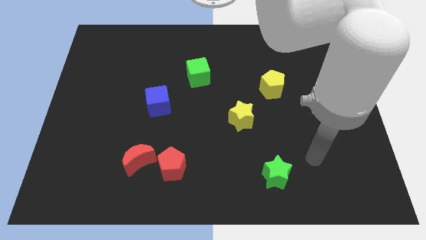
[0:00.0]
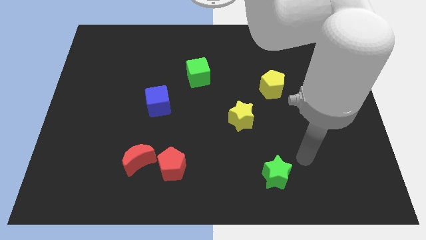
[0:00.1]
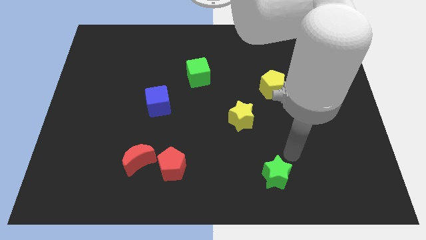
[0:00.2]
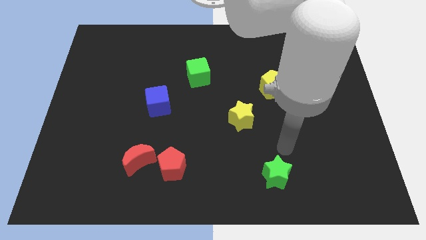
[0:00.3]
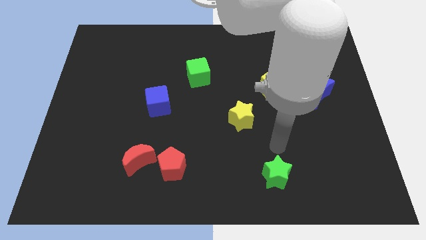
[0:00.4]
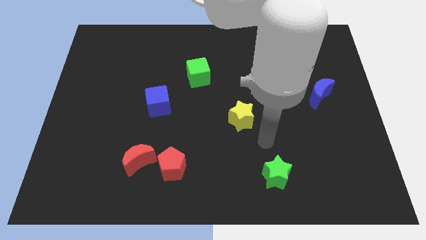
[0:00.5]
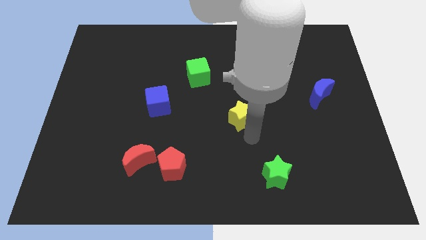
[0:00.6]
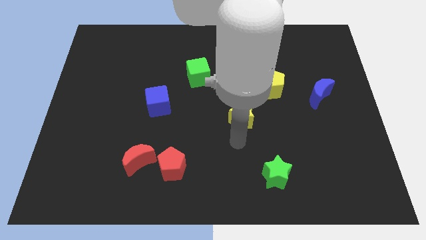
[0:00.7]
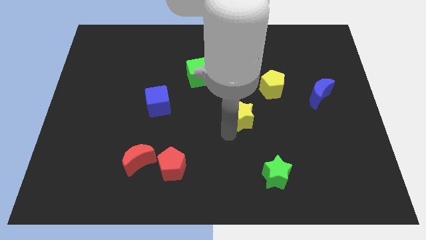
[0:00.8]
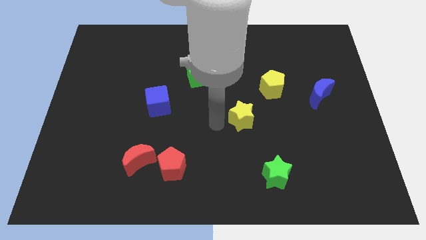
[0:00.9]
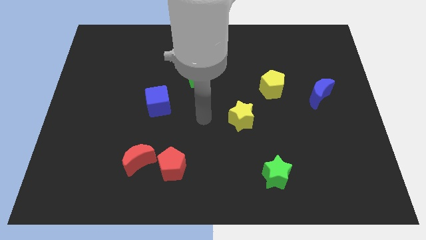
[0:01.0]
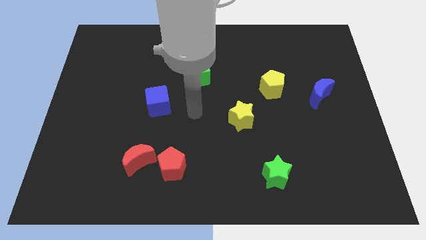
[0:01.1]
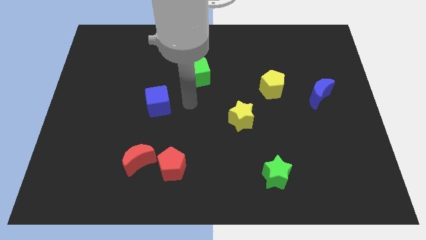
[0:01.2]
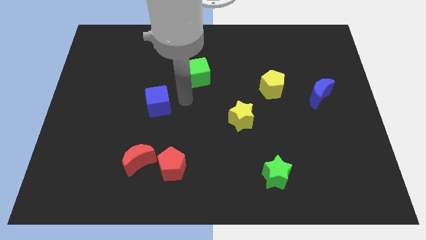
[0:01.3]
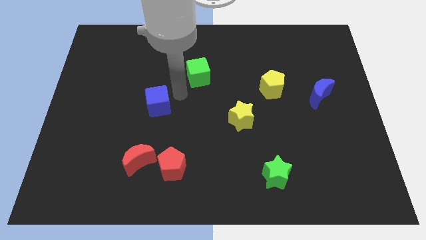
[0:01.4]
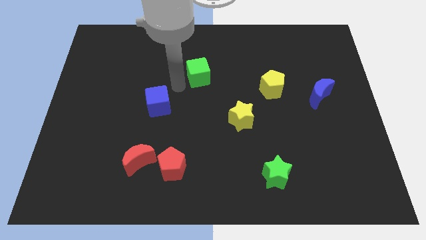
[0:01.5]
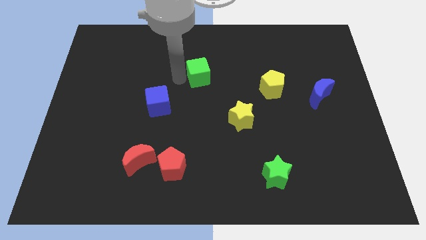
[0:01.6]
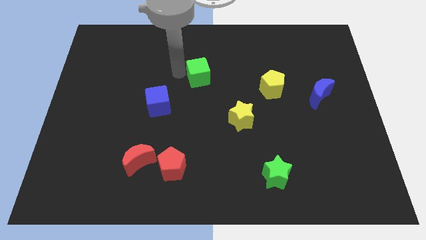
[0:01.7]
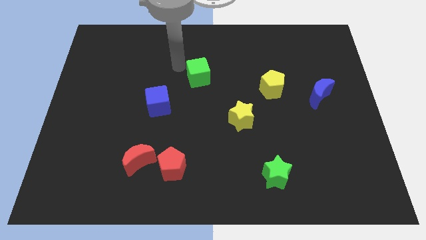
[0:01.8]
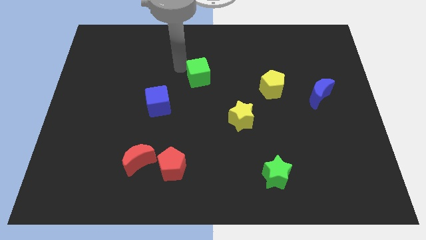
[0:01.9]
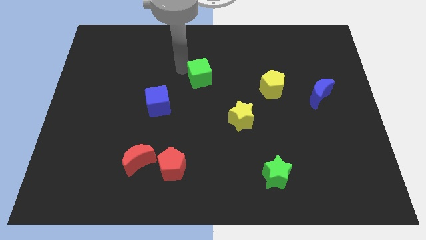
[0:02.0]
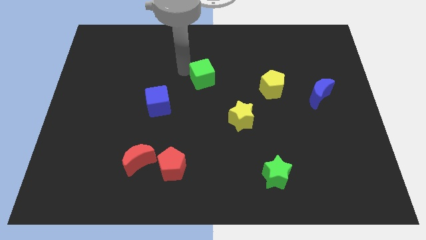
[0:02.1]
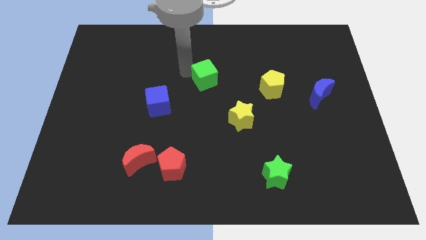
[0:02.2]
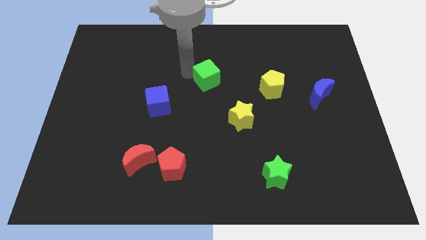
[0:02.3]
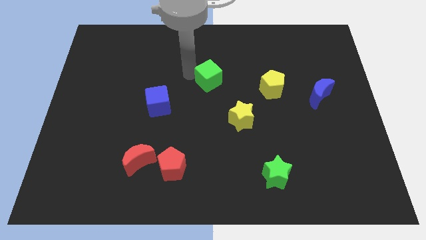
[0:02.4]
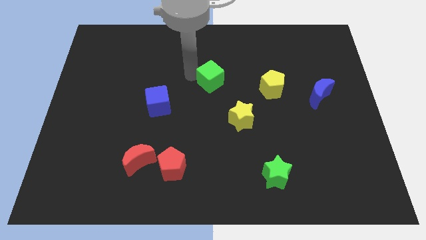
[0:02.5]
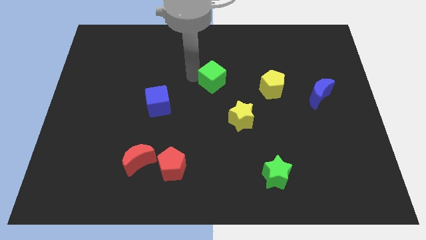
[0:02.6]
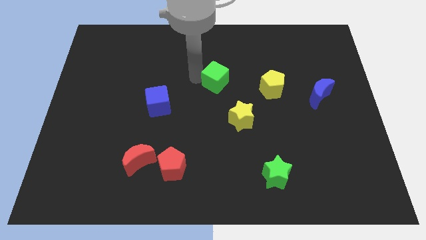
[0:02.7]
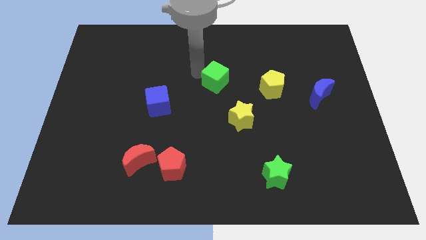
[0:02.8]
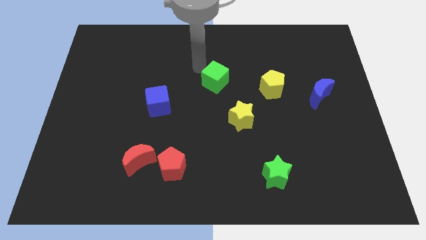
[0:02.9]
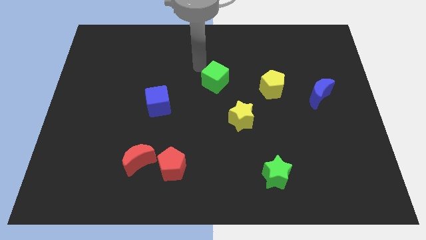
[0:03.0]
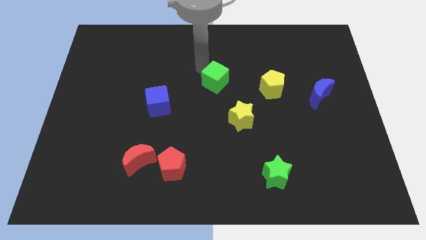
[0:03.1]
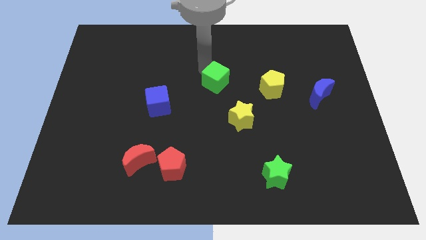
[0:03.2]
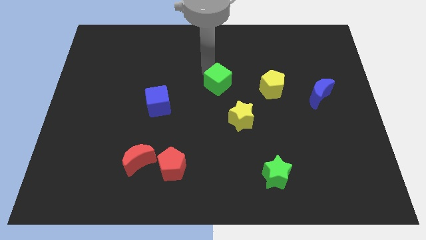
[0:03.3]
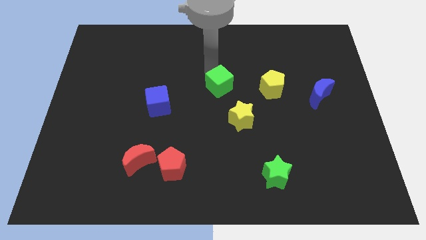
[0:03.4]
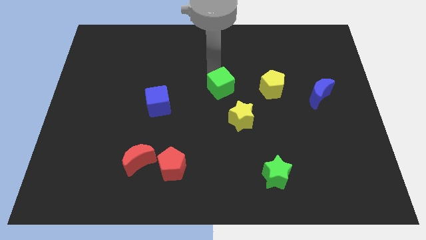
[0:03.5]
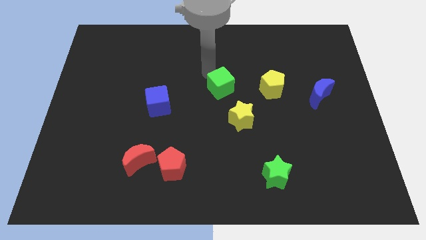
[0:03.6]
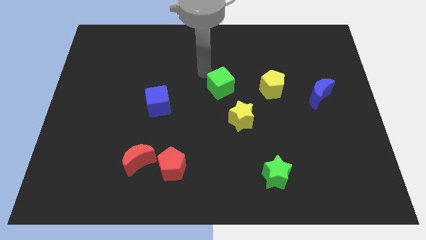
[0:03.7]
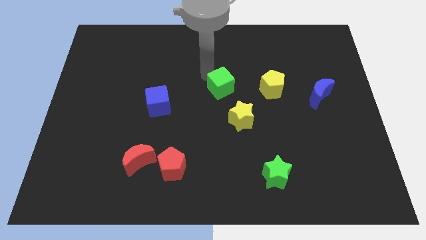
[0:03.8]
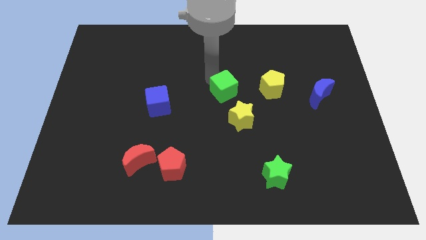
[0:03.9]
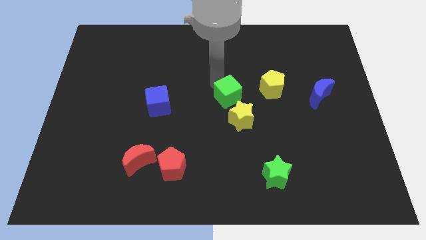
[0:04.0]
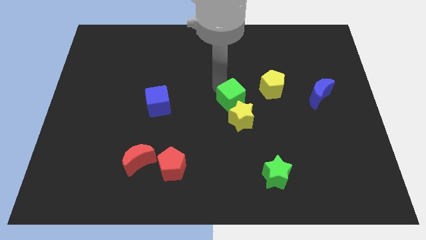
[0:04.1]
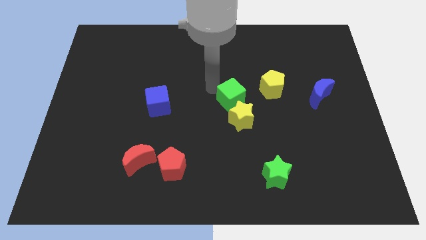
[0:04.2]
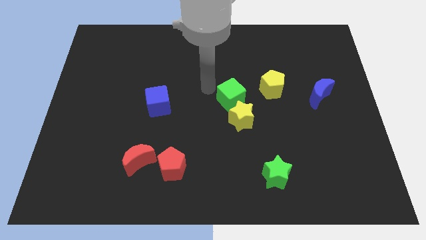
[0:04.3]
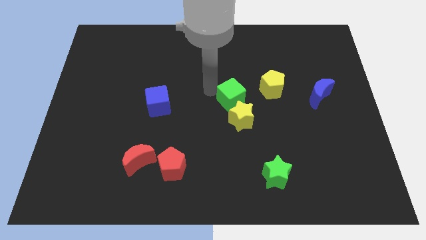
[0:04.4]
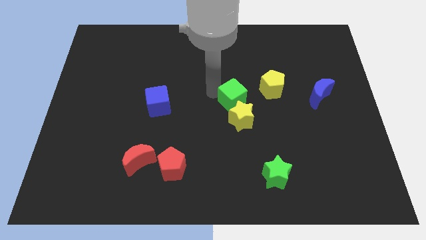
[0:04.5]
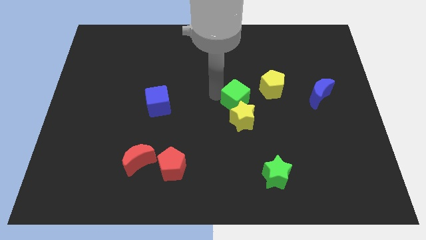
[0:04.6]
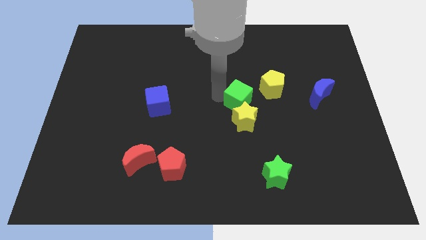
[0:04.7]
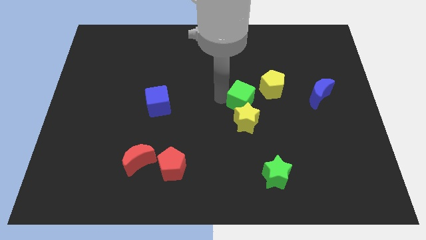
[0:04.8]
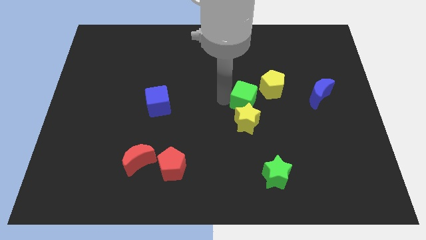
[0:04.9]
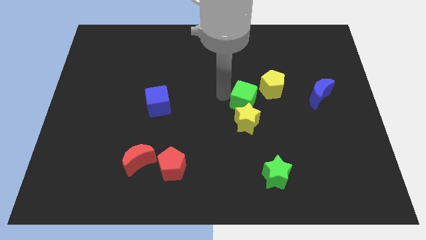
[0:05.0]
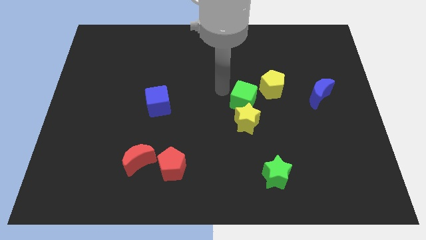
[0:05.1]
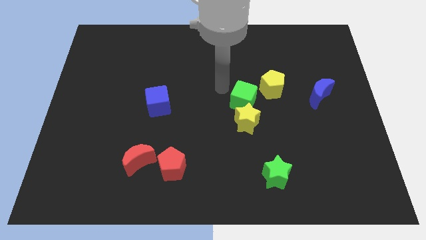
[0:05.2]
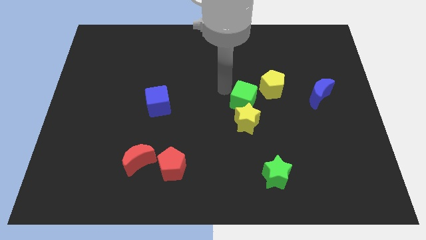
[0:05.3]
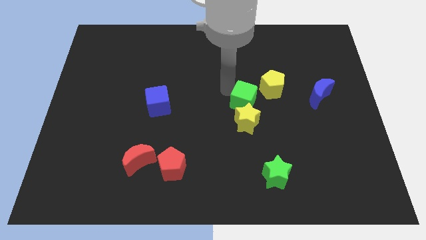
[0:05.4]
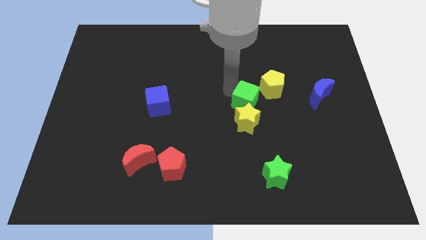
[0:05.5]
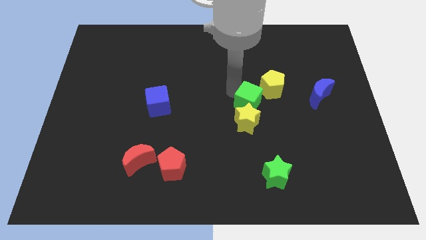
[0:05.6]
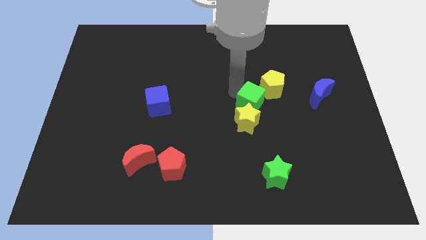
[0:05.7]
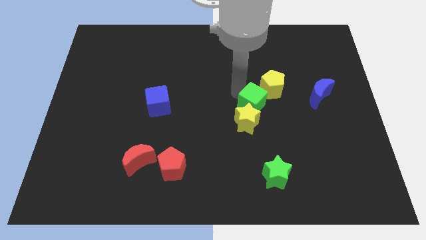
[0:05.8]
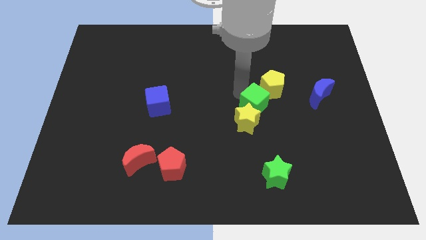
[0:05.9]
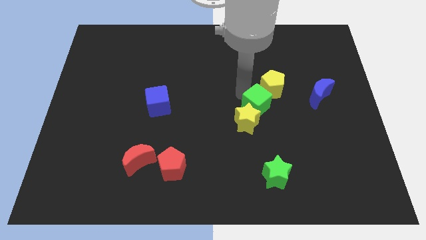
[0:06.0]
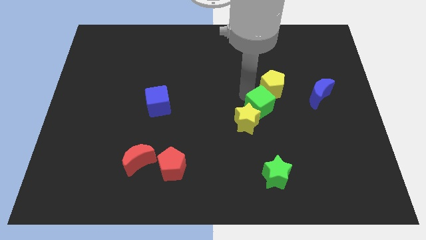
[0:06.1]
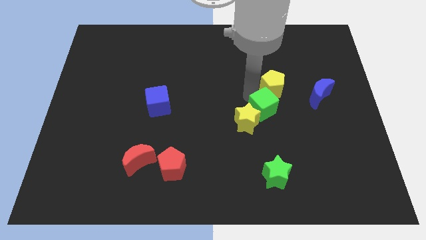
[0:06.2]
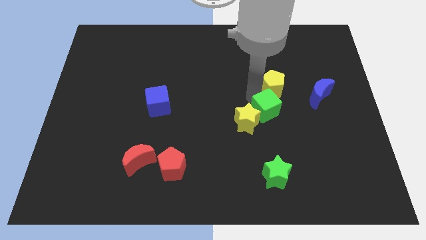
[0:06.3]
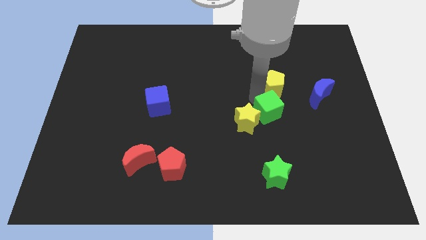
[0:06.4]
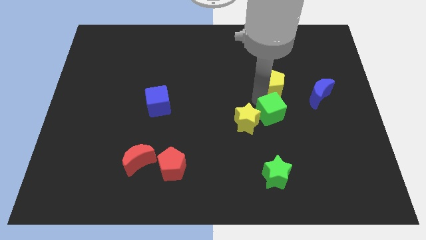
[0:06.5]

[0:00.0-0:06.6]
slide the green cube downwards and right

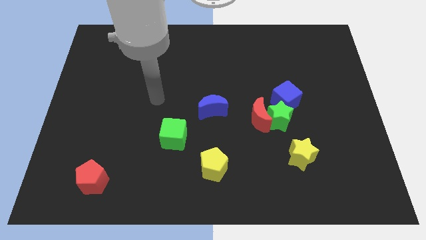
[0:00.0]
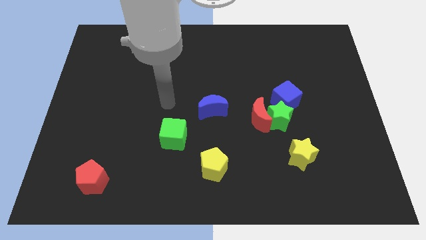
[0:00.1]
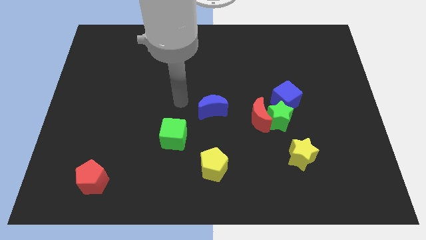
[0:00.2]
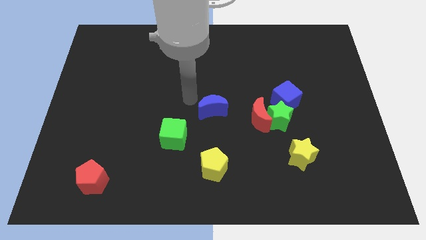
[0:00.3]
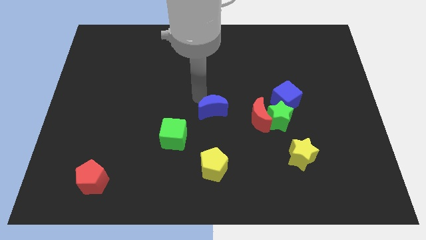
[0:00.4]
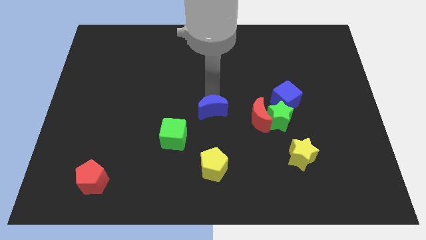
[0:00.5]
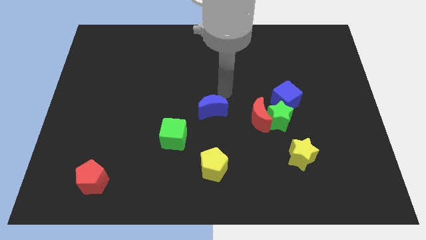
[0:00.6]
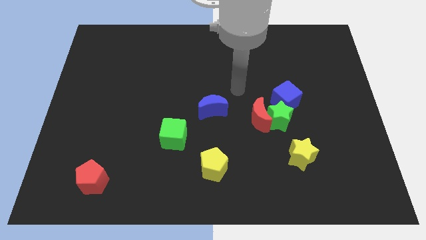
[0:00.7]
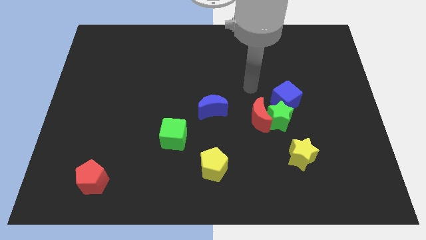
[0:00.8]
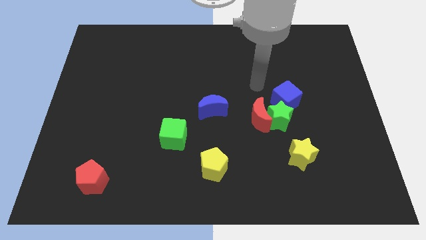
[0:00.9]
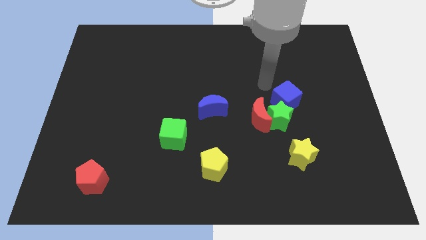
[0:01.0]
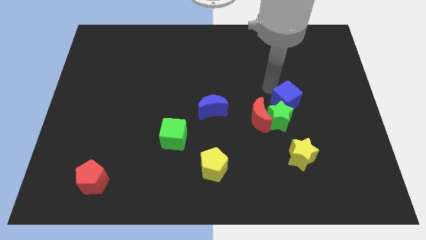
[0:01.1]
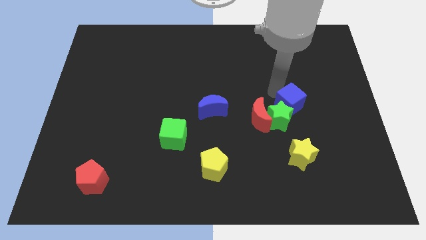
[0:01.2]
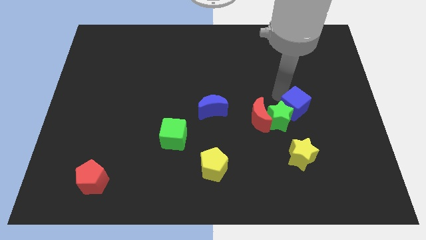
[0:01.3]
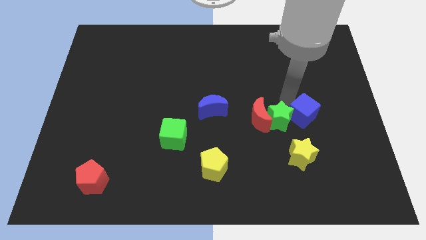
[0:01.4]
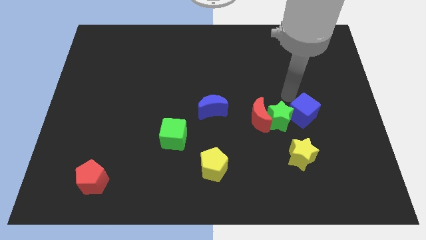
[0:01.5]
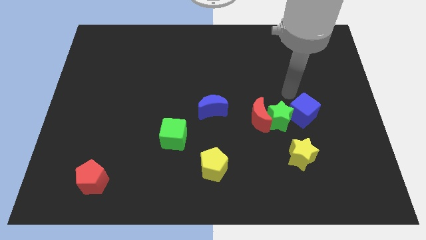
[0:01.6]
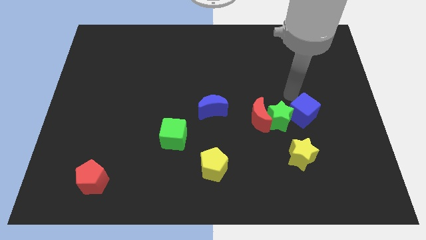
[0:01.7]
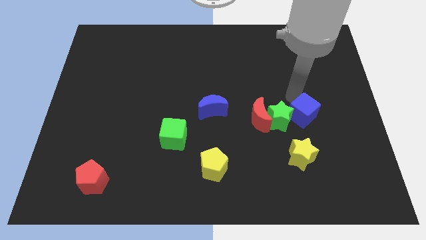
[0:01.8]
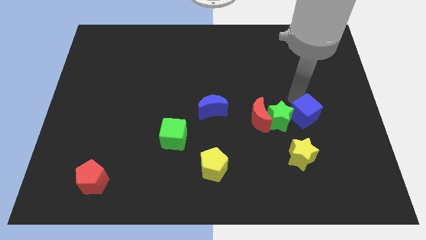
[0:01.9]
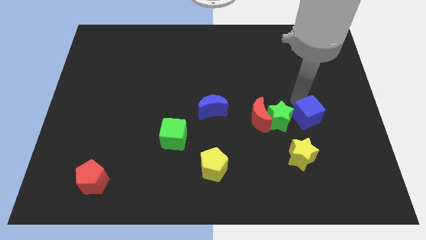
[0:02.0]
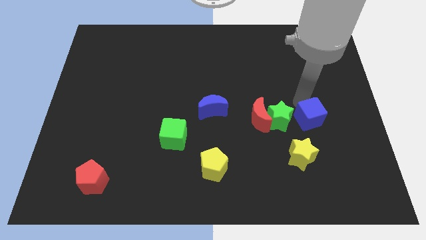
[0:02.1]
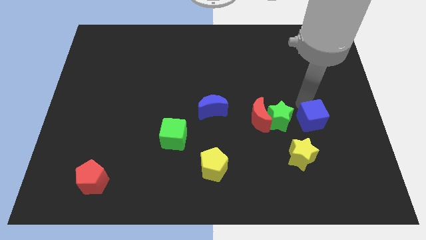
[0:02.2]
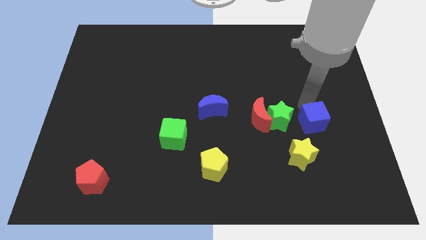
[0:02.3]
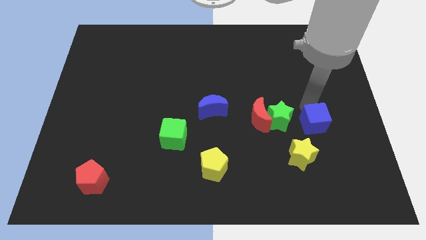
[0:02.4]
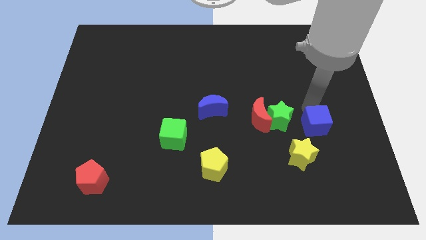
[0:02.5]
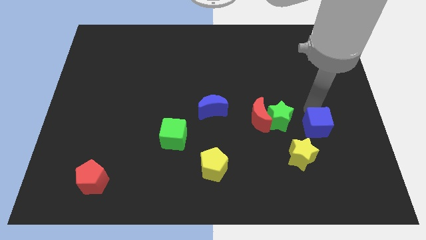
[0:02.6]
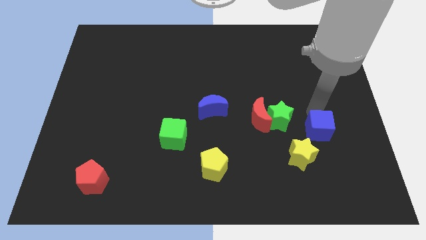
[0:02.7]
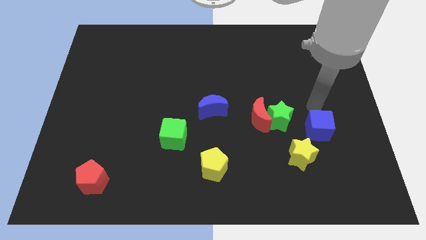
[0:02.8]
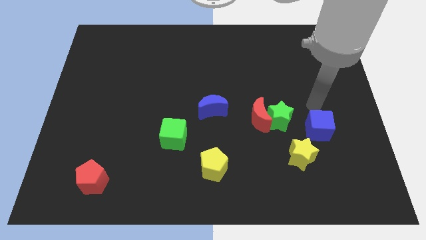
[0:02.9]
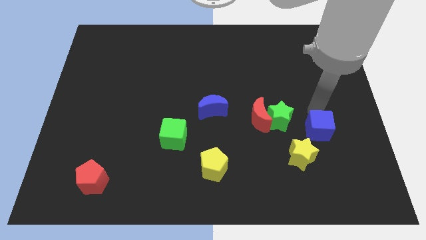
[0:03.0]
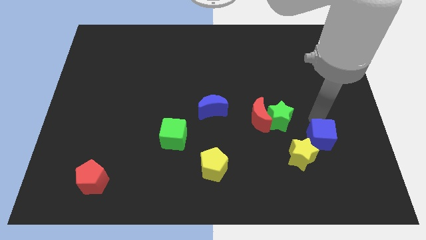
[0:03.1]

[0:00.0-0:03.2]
push the blue cube somewhat downwards
